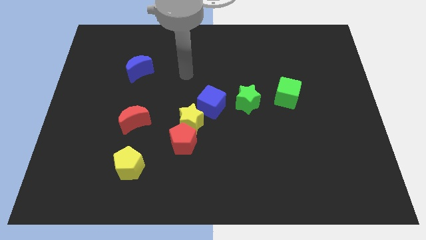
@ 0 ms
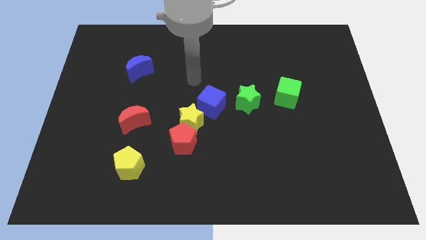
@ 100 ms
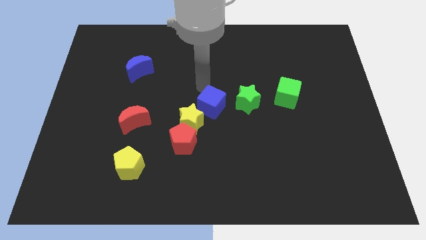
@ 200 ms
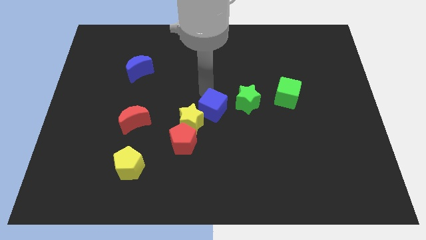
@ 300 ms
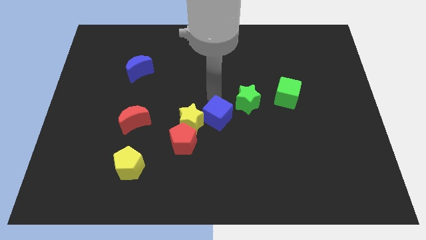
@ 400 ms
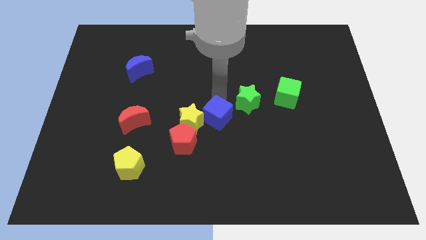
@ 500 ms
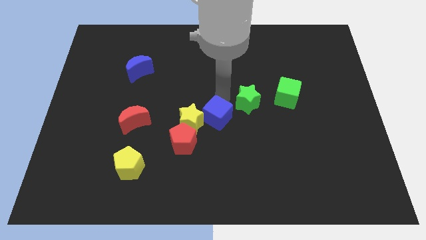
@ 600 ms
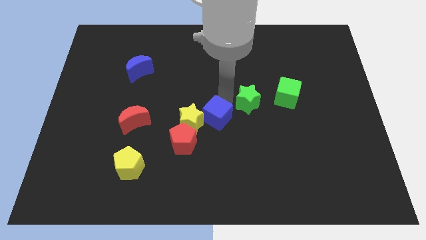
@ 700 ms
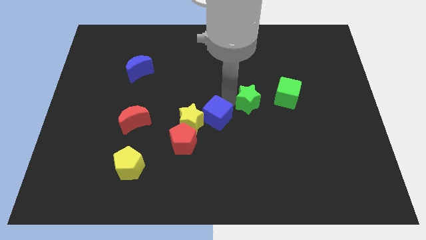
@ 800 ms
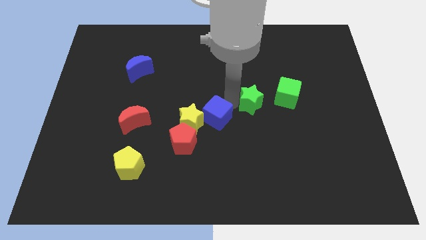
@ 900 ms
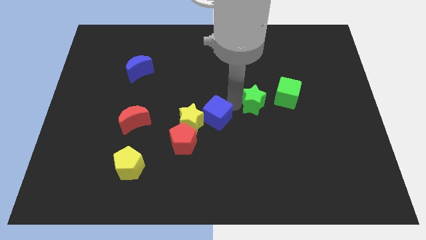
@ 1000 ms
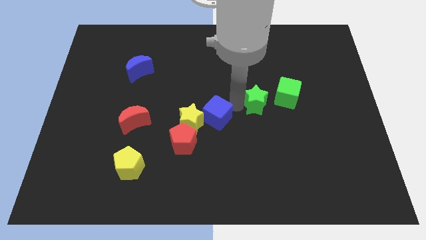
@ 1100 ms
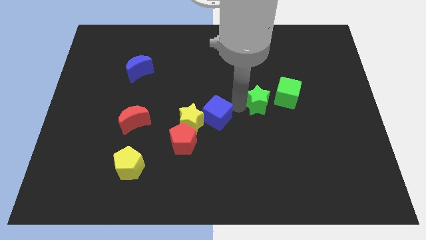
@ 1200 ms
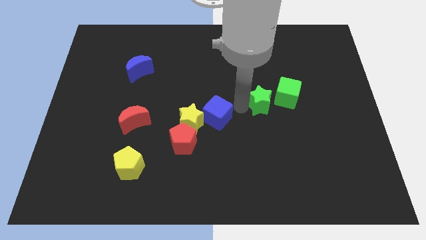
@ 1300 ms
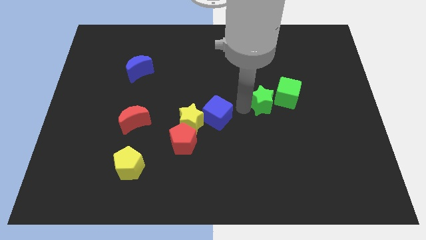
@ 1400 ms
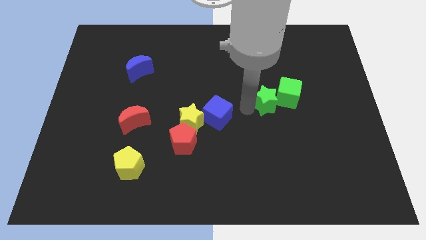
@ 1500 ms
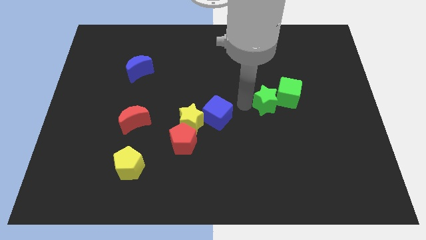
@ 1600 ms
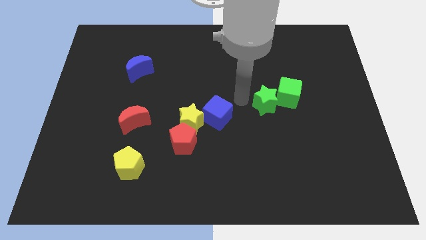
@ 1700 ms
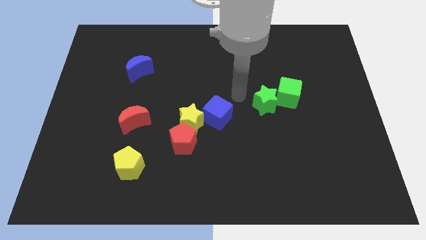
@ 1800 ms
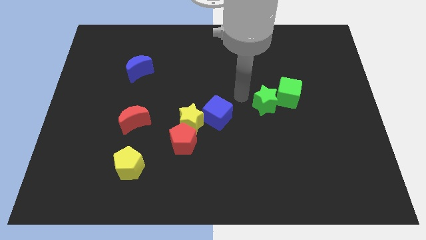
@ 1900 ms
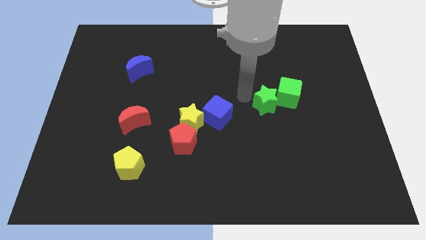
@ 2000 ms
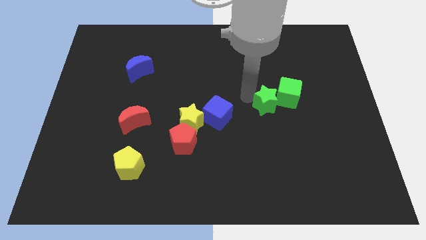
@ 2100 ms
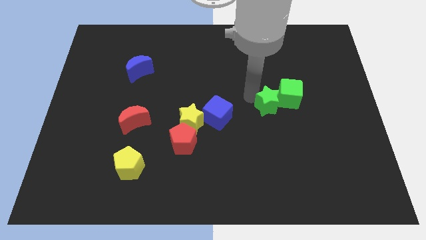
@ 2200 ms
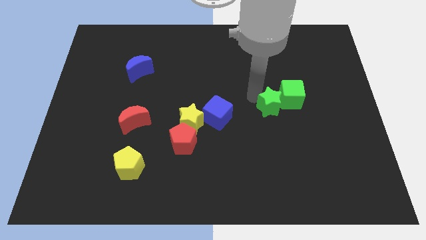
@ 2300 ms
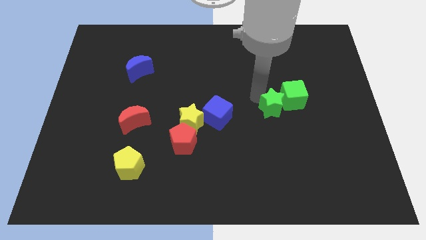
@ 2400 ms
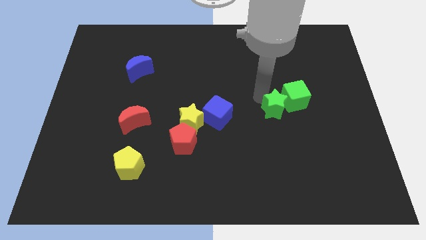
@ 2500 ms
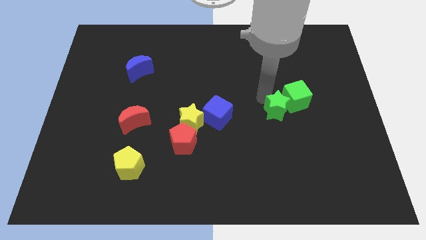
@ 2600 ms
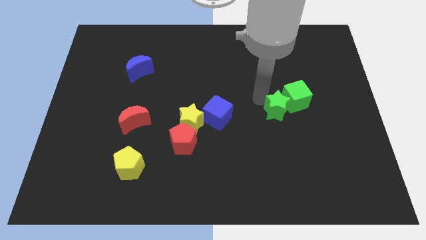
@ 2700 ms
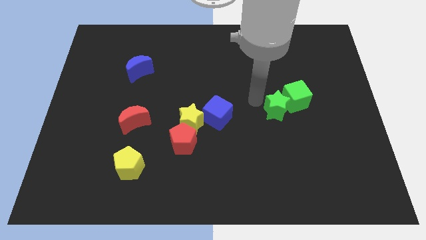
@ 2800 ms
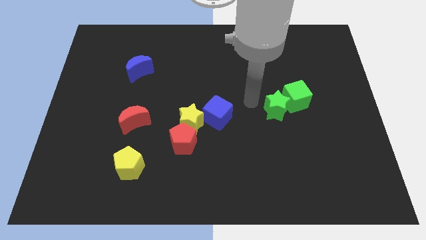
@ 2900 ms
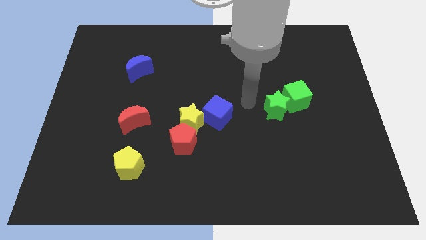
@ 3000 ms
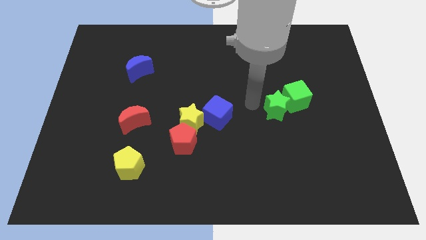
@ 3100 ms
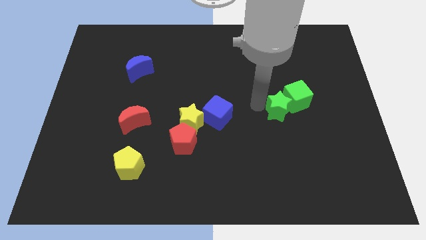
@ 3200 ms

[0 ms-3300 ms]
slide the green star a bit right

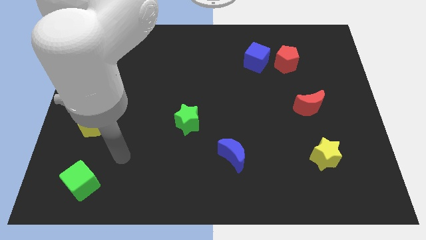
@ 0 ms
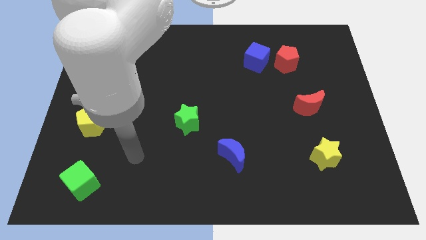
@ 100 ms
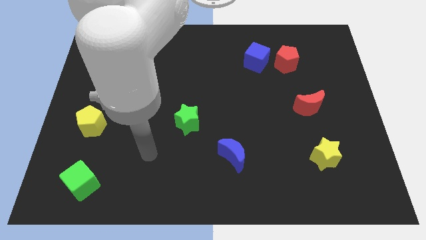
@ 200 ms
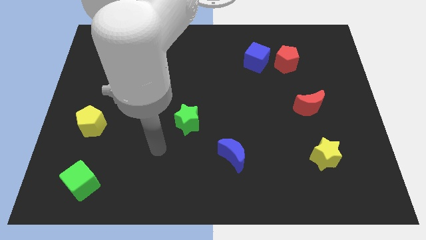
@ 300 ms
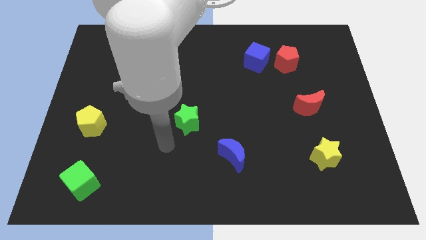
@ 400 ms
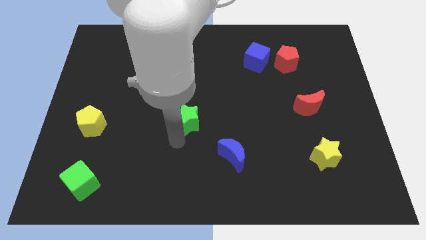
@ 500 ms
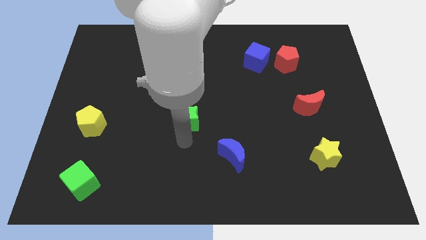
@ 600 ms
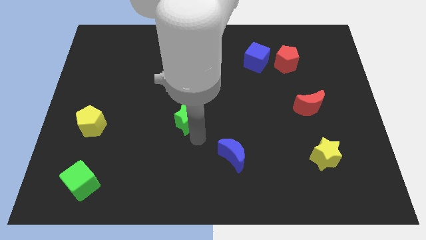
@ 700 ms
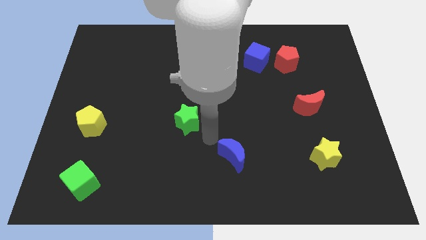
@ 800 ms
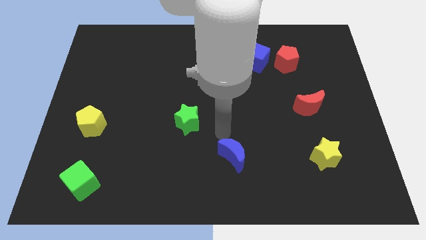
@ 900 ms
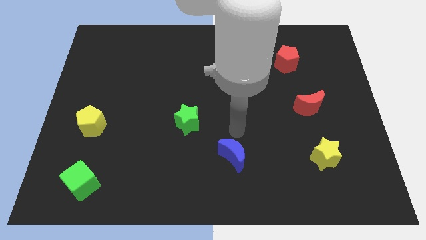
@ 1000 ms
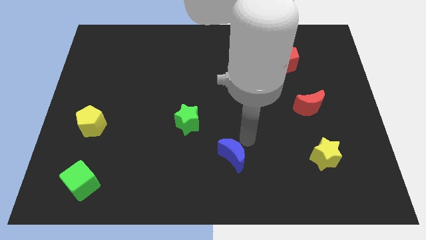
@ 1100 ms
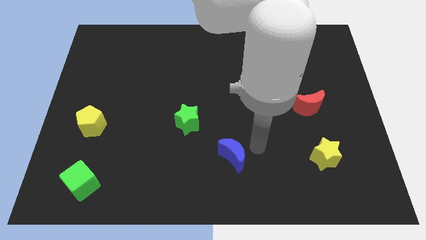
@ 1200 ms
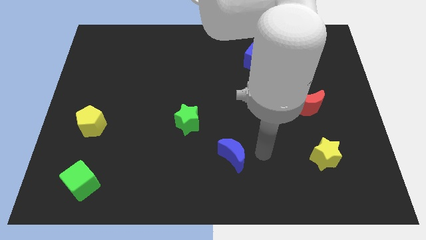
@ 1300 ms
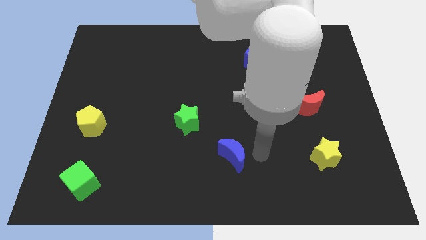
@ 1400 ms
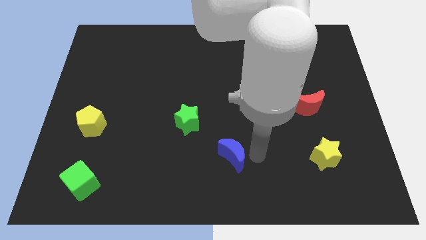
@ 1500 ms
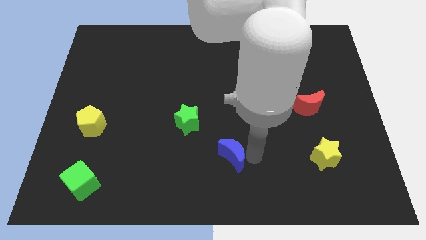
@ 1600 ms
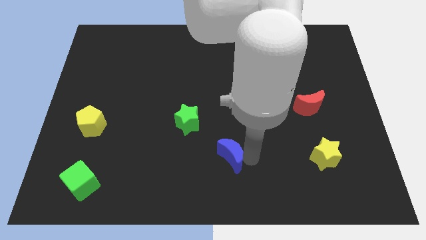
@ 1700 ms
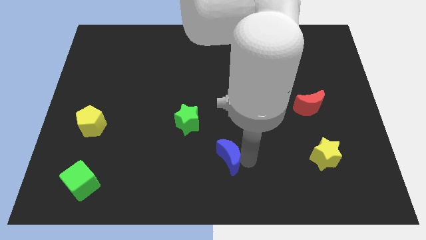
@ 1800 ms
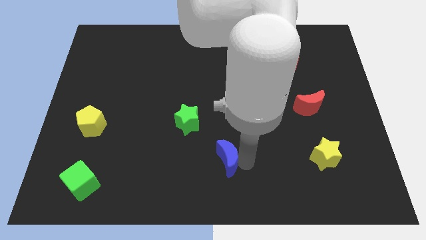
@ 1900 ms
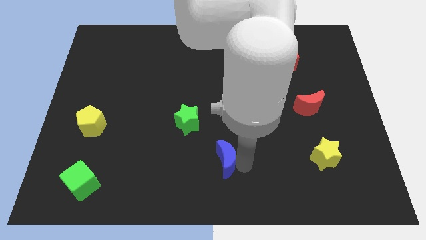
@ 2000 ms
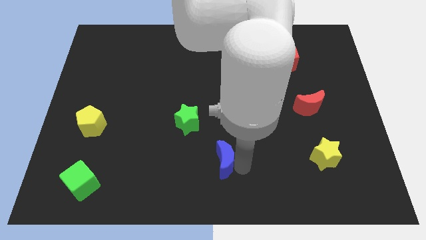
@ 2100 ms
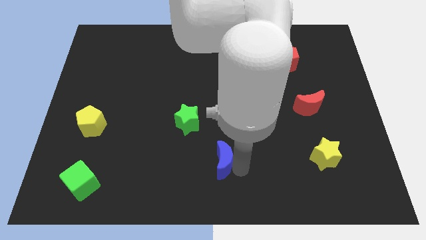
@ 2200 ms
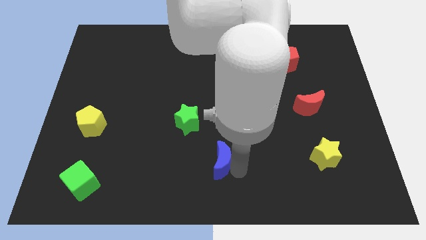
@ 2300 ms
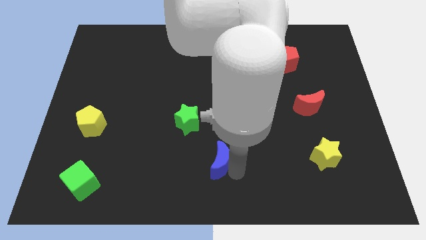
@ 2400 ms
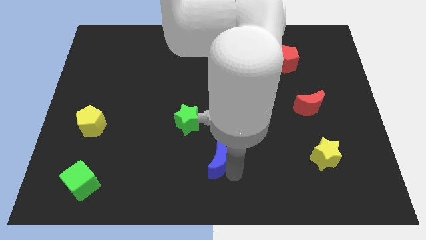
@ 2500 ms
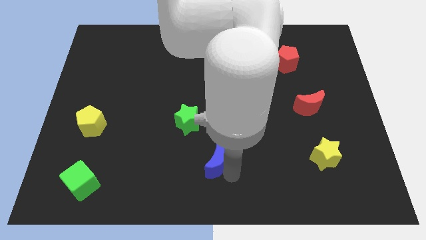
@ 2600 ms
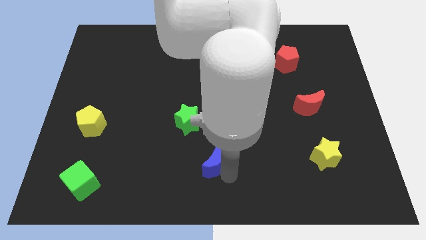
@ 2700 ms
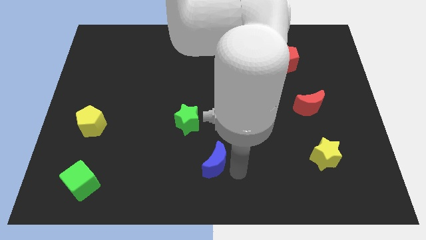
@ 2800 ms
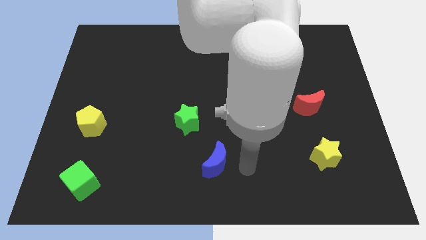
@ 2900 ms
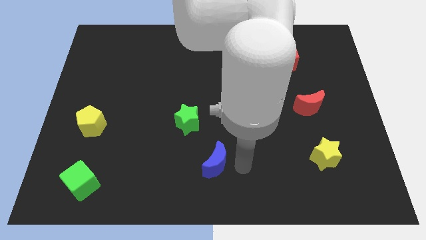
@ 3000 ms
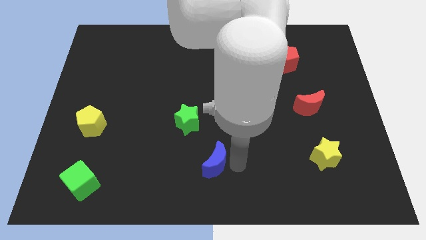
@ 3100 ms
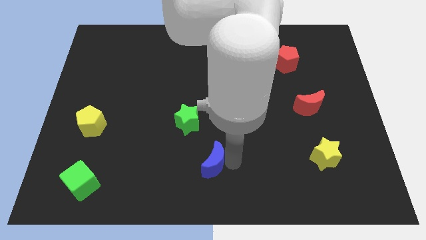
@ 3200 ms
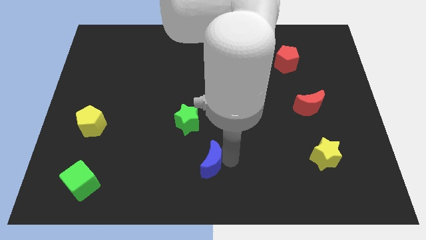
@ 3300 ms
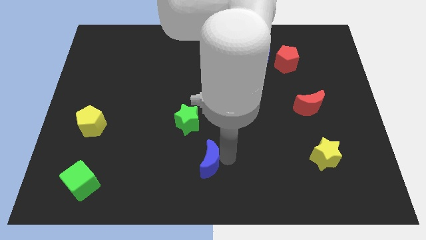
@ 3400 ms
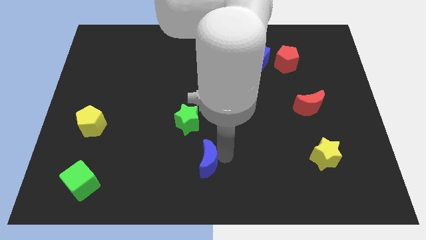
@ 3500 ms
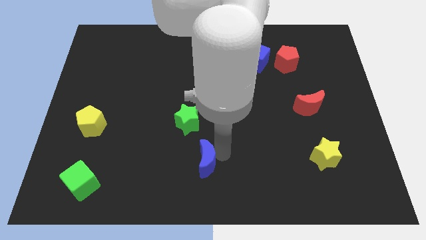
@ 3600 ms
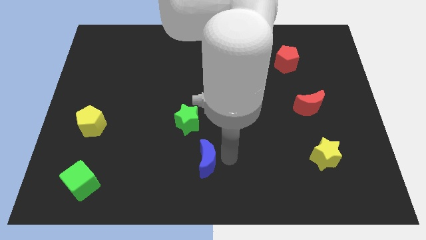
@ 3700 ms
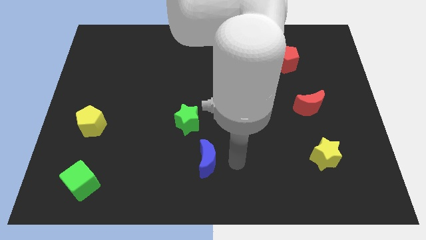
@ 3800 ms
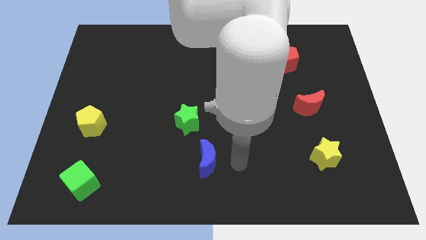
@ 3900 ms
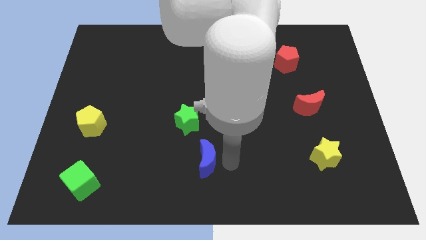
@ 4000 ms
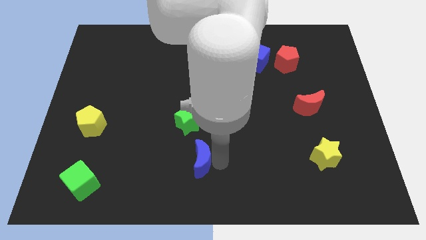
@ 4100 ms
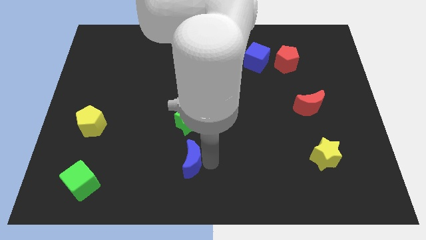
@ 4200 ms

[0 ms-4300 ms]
move the blue moon to the left somewhat
